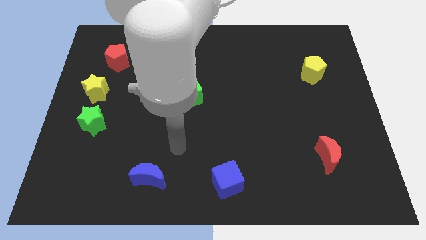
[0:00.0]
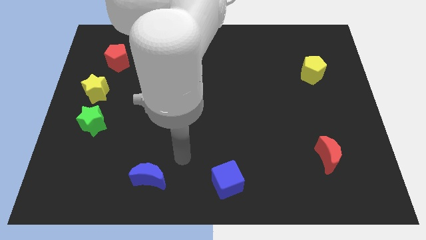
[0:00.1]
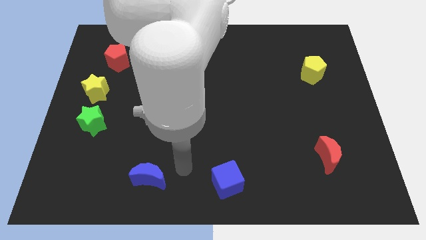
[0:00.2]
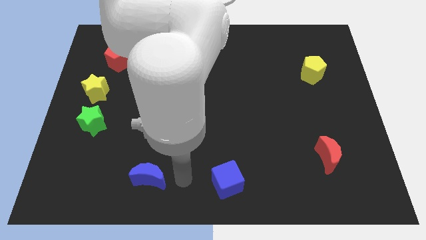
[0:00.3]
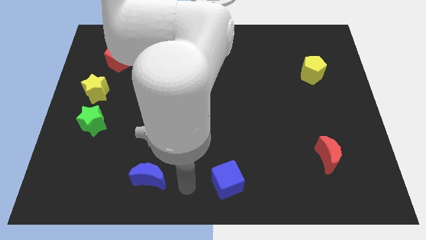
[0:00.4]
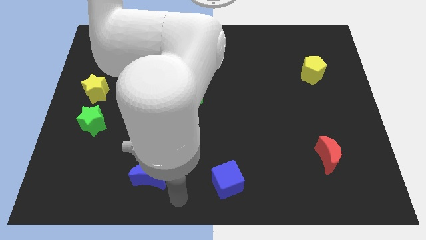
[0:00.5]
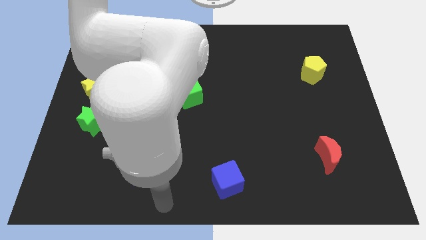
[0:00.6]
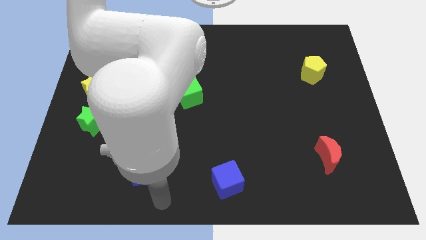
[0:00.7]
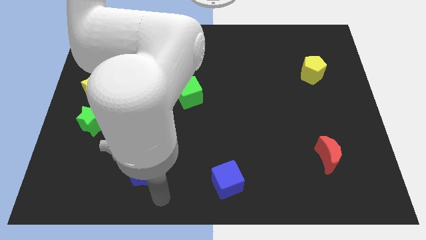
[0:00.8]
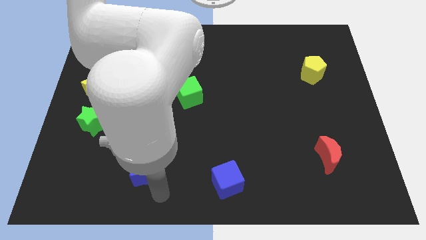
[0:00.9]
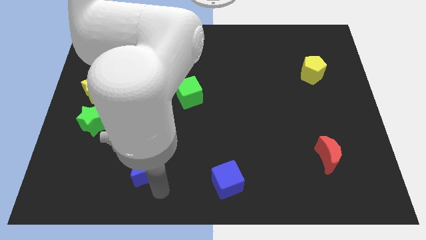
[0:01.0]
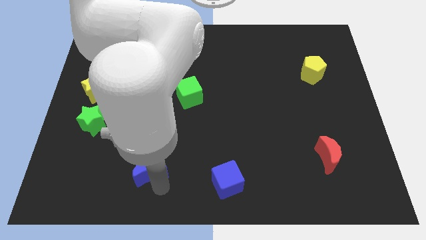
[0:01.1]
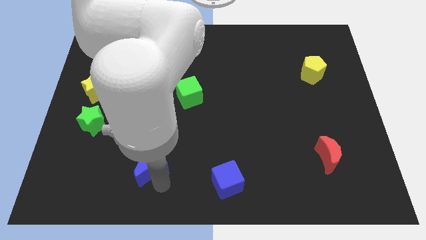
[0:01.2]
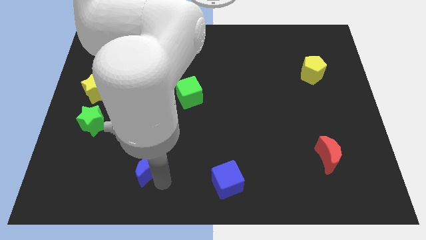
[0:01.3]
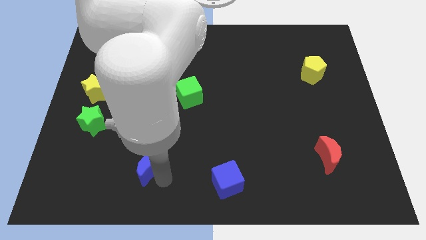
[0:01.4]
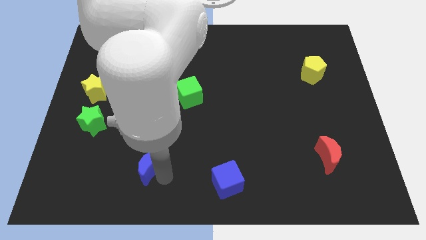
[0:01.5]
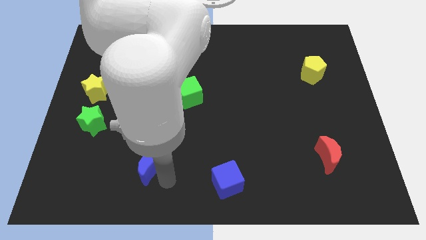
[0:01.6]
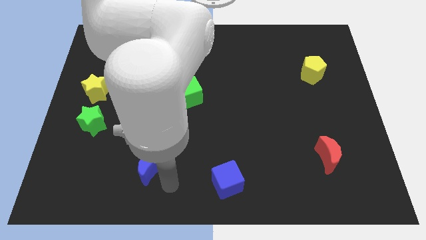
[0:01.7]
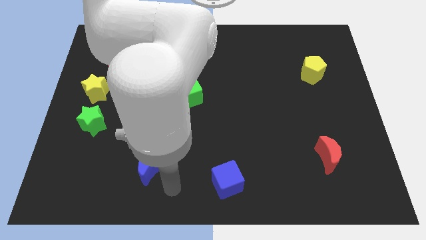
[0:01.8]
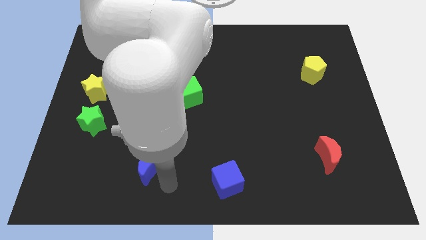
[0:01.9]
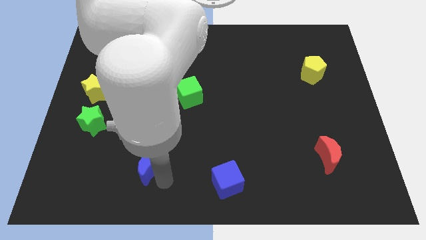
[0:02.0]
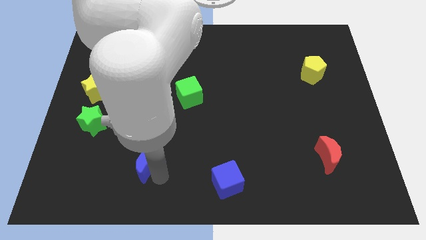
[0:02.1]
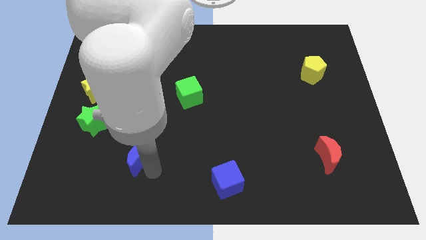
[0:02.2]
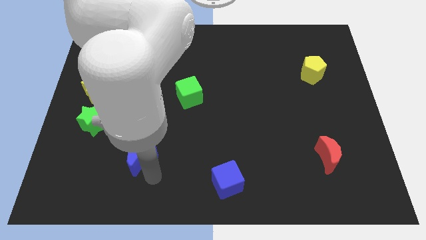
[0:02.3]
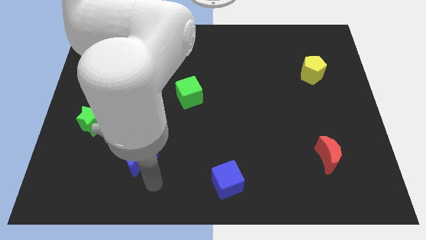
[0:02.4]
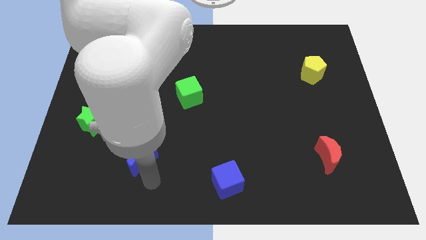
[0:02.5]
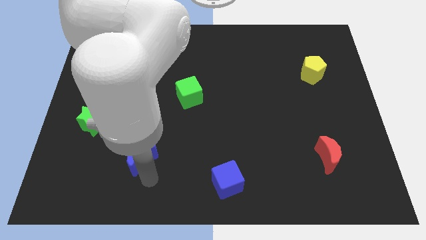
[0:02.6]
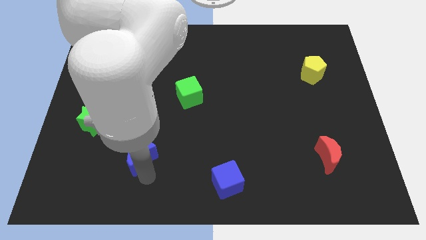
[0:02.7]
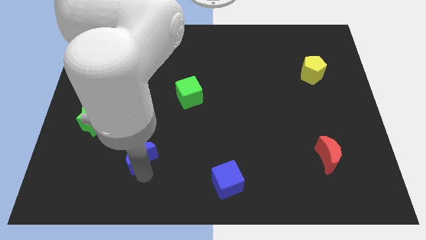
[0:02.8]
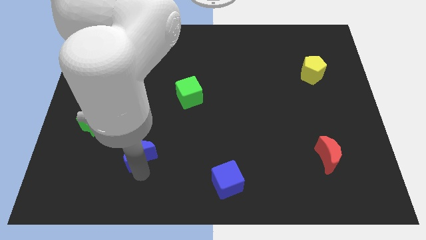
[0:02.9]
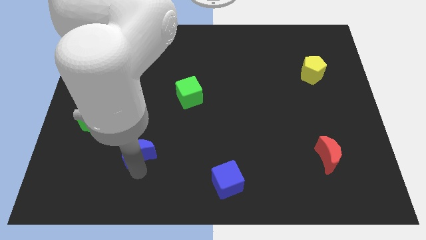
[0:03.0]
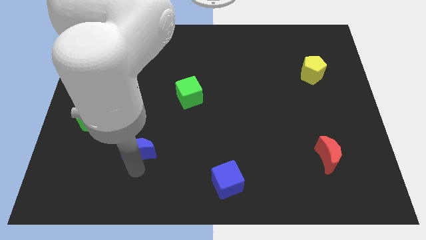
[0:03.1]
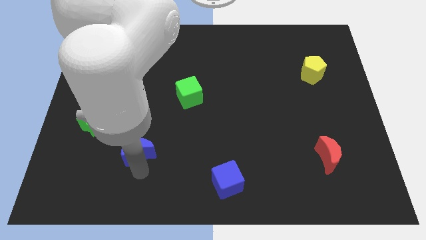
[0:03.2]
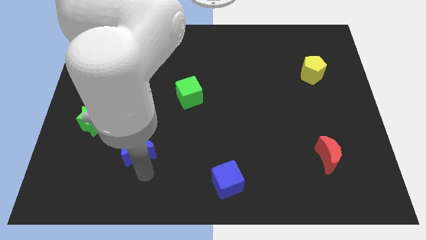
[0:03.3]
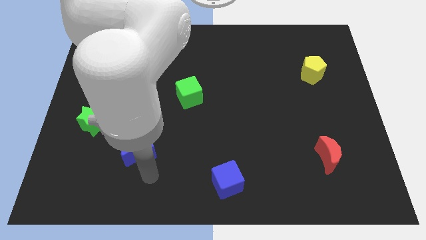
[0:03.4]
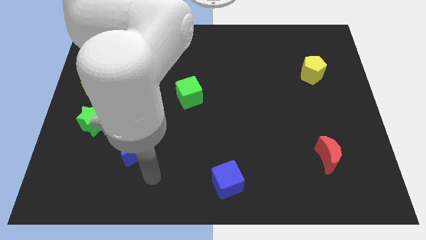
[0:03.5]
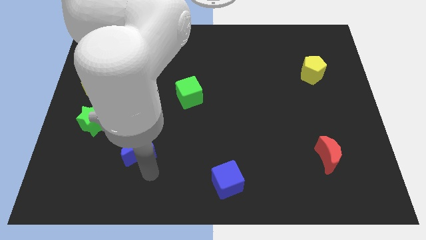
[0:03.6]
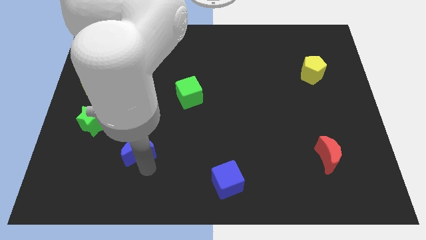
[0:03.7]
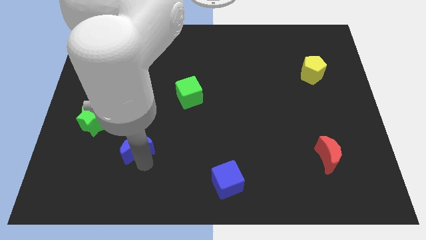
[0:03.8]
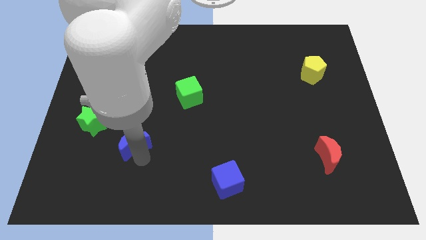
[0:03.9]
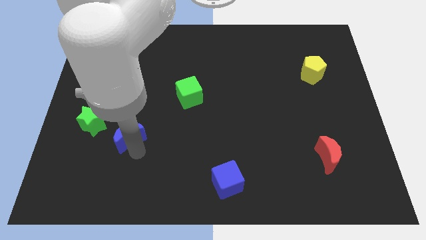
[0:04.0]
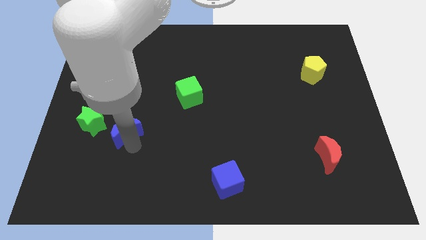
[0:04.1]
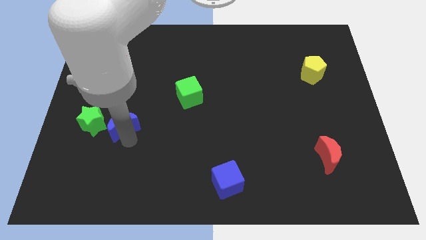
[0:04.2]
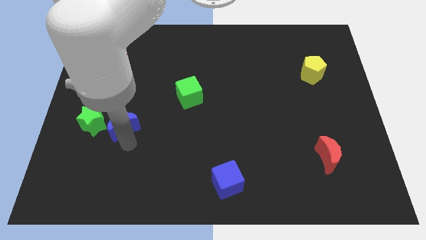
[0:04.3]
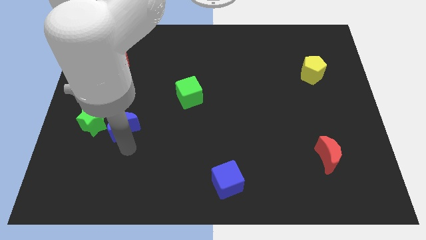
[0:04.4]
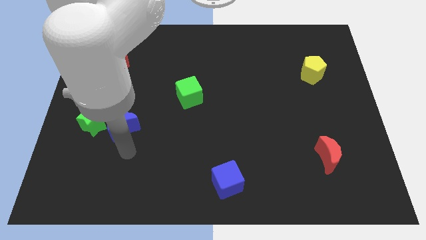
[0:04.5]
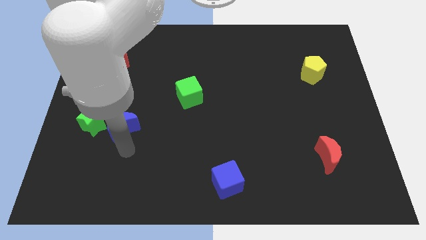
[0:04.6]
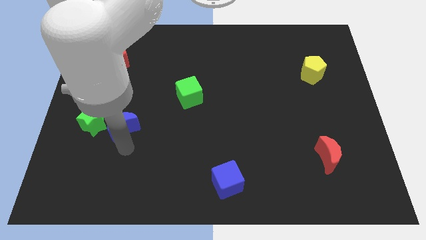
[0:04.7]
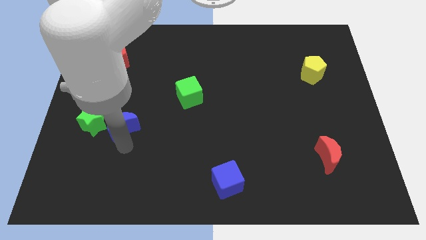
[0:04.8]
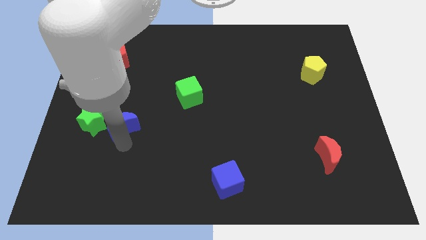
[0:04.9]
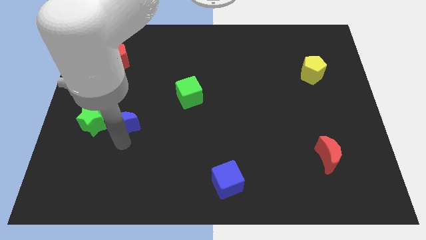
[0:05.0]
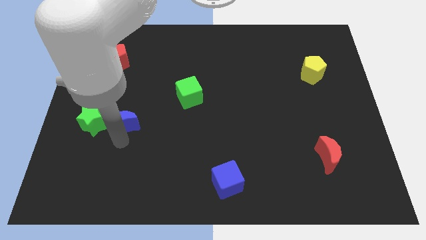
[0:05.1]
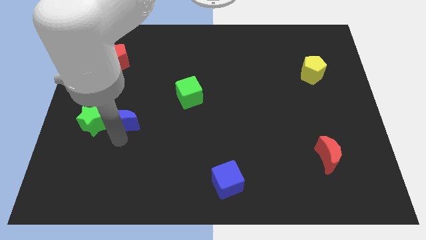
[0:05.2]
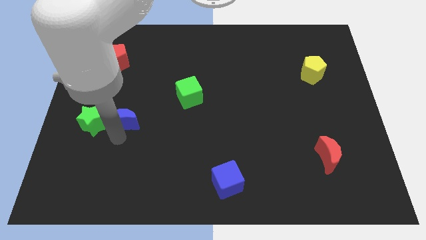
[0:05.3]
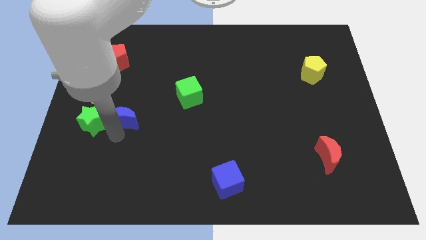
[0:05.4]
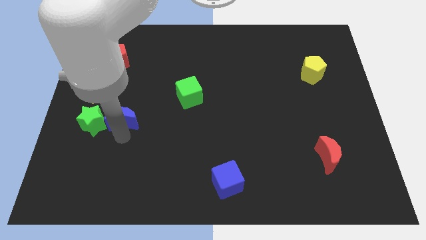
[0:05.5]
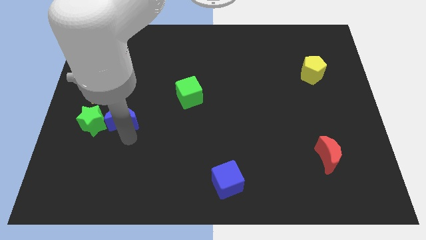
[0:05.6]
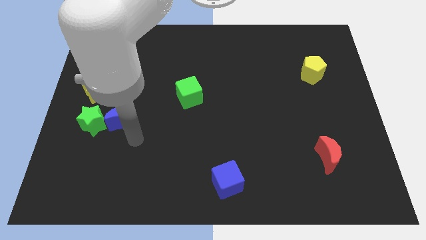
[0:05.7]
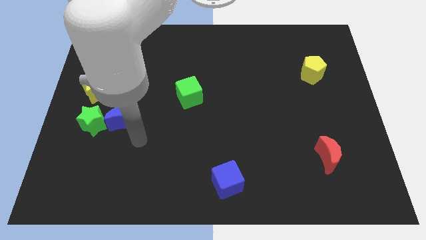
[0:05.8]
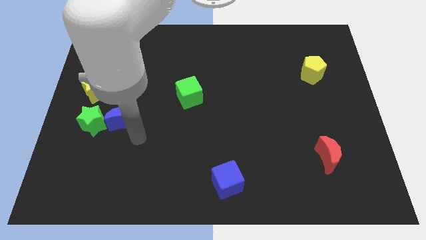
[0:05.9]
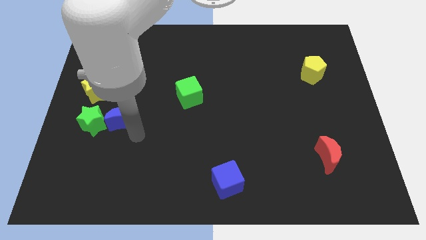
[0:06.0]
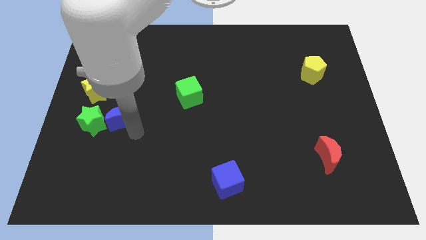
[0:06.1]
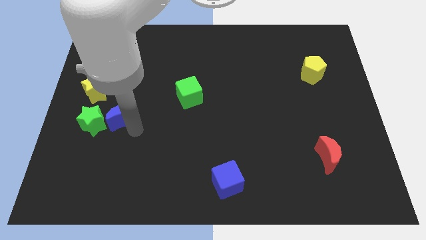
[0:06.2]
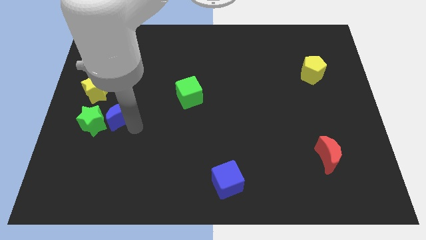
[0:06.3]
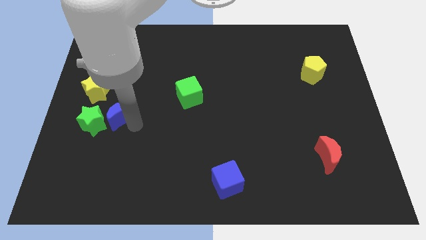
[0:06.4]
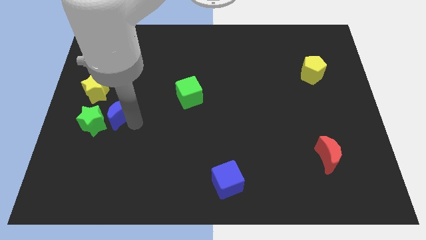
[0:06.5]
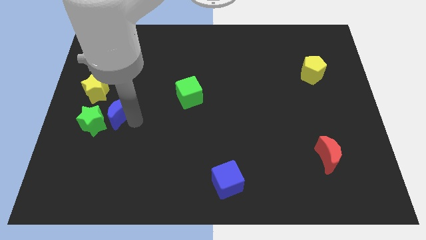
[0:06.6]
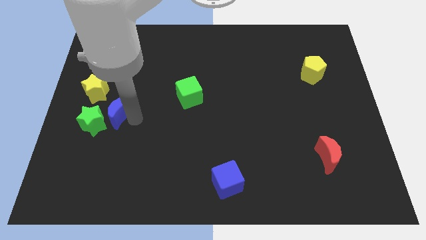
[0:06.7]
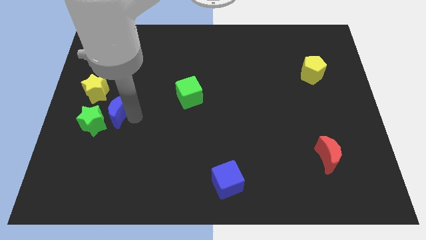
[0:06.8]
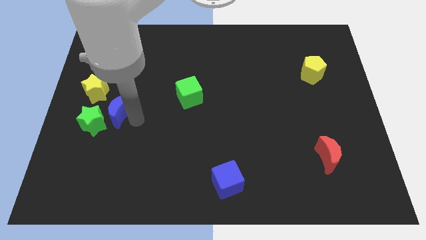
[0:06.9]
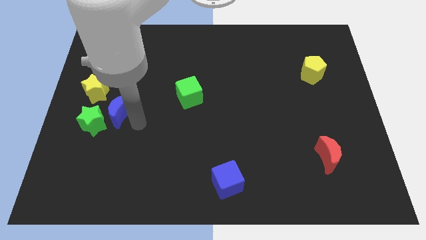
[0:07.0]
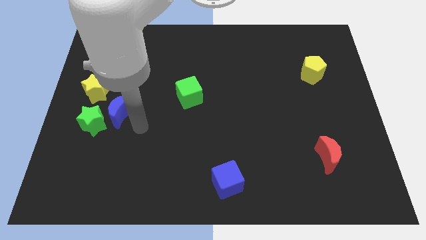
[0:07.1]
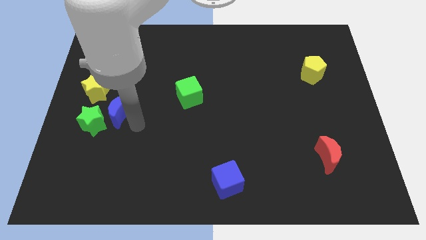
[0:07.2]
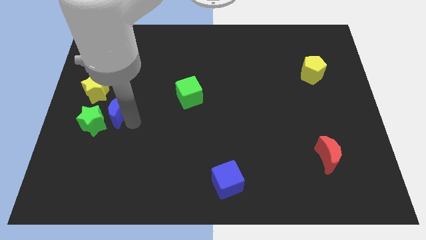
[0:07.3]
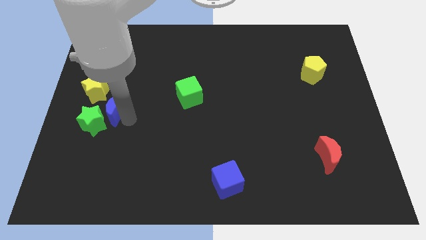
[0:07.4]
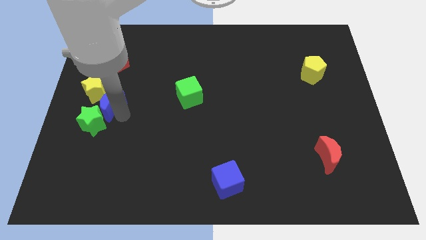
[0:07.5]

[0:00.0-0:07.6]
slide the blue moon to the yellow star
